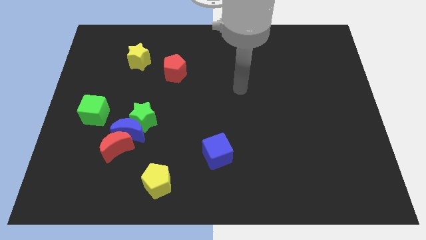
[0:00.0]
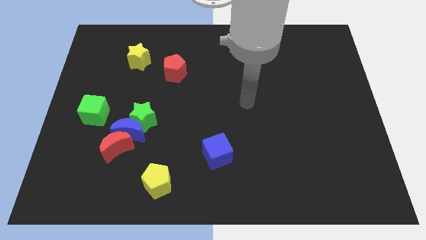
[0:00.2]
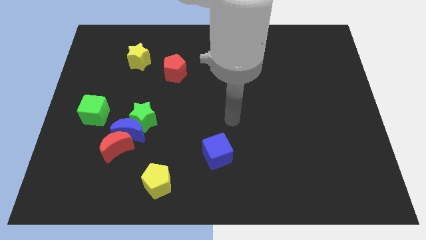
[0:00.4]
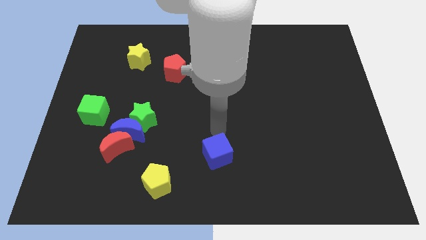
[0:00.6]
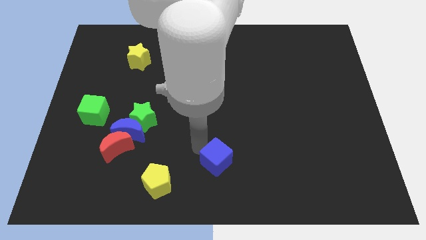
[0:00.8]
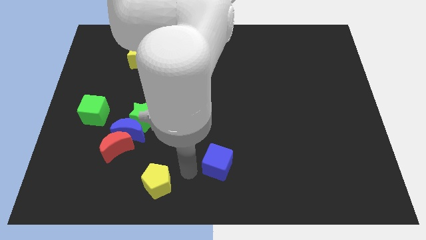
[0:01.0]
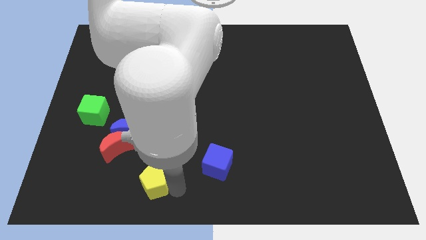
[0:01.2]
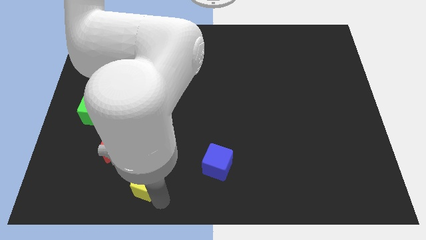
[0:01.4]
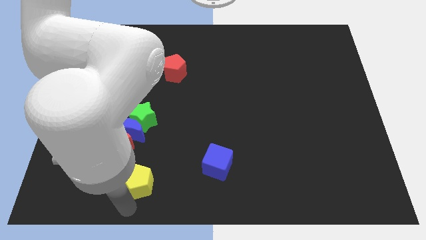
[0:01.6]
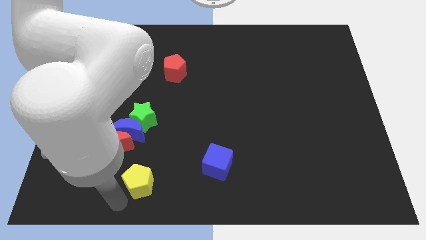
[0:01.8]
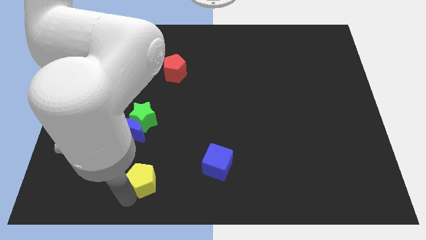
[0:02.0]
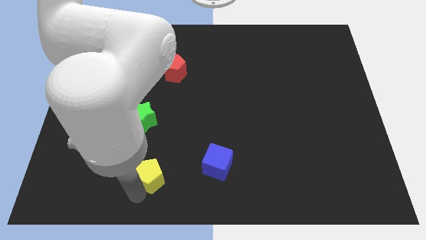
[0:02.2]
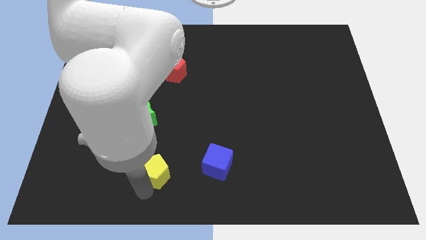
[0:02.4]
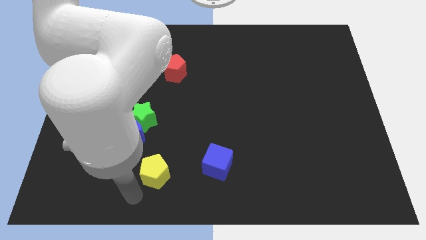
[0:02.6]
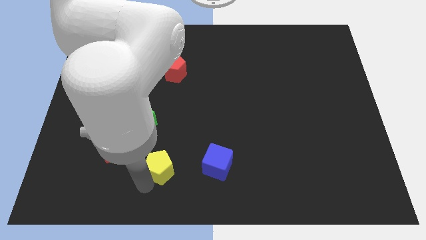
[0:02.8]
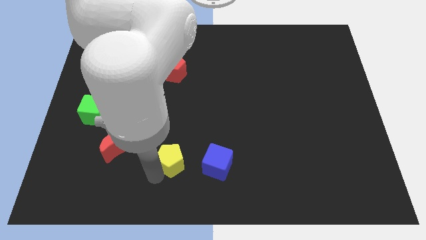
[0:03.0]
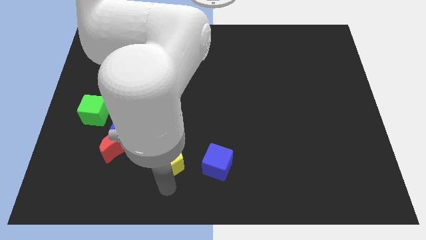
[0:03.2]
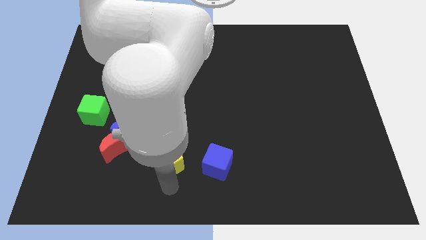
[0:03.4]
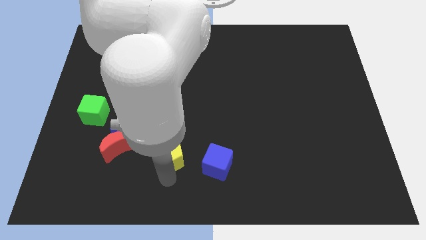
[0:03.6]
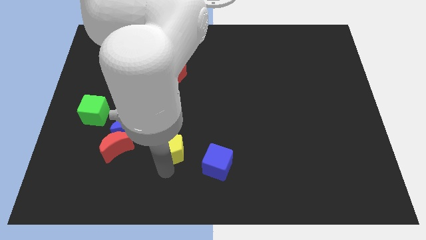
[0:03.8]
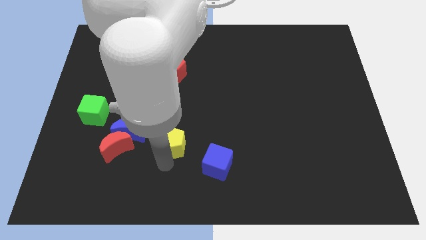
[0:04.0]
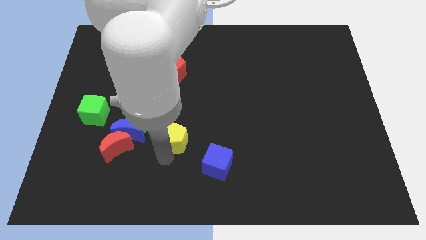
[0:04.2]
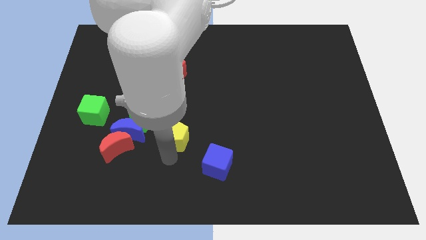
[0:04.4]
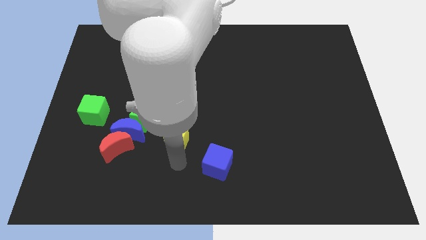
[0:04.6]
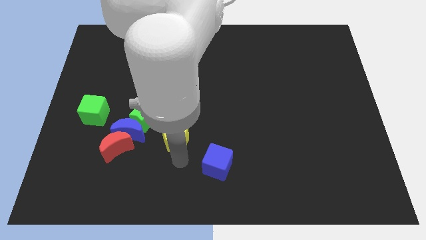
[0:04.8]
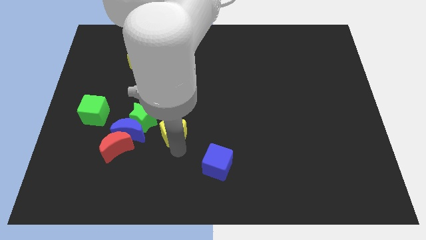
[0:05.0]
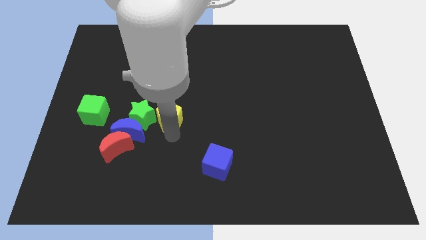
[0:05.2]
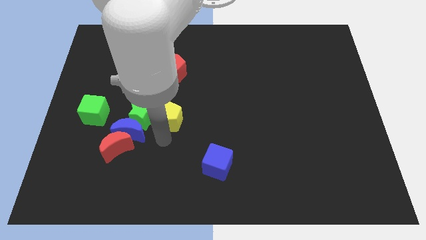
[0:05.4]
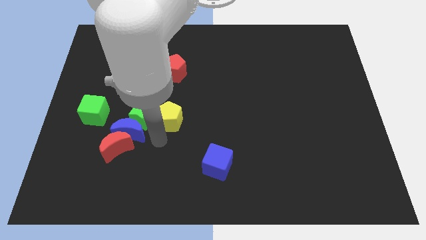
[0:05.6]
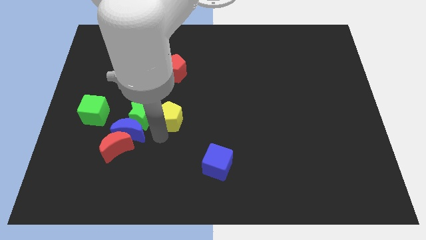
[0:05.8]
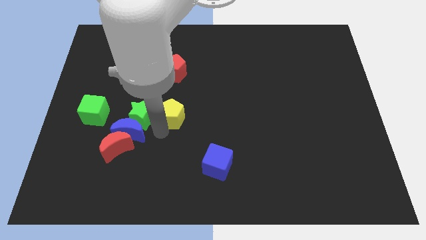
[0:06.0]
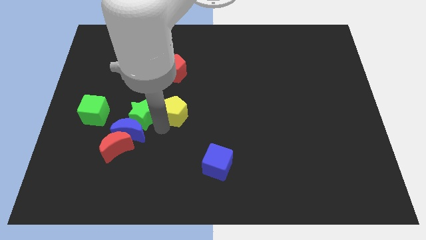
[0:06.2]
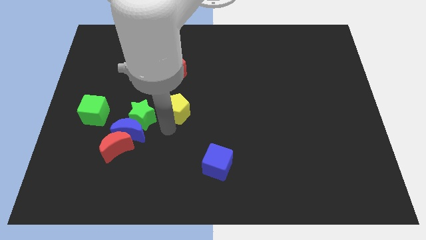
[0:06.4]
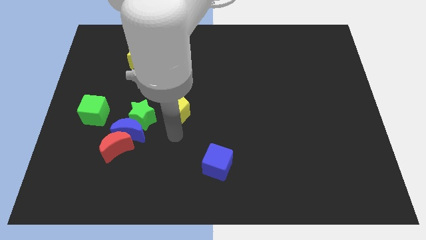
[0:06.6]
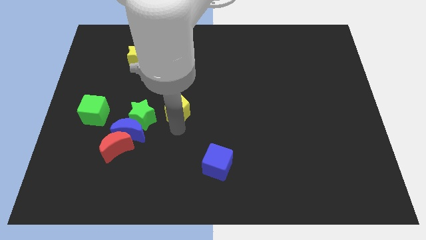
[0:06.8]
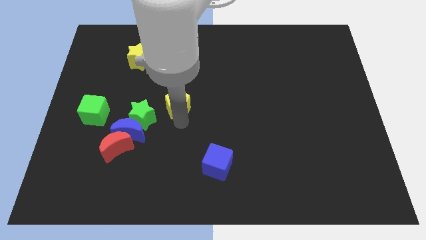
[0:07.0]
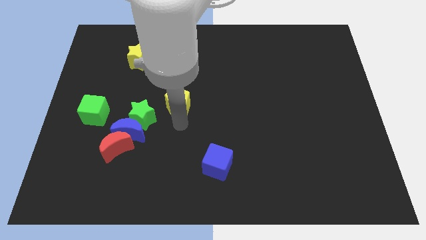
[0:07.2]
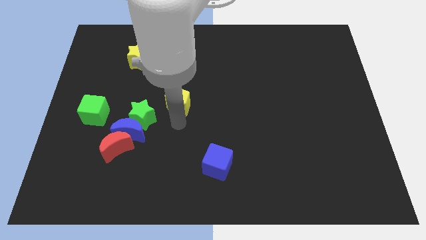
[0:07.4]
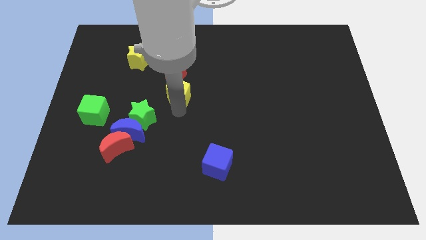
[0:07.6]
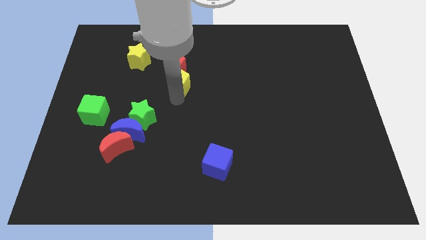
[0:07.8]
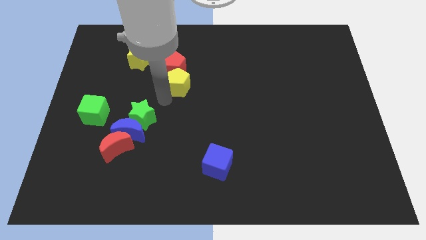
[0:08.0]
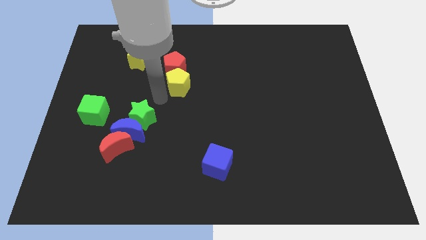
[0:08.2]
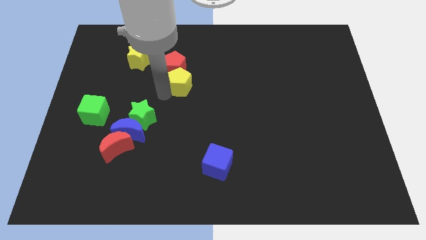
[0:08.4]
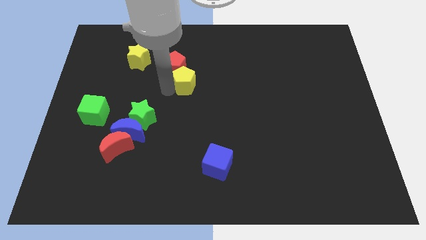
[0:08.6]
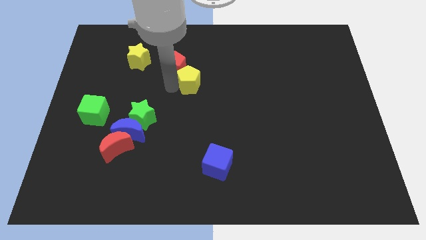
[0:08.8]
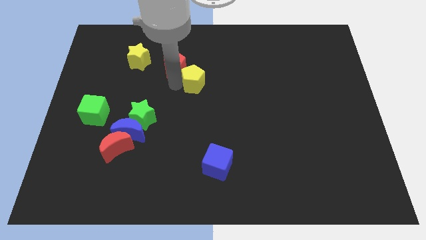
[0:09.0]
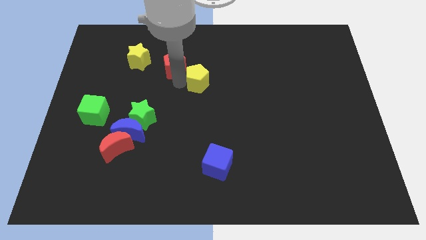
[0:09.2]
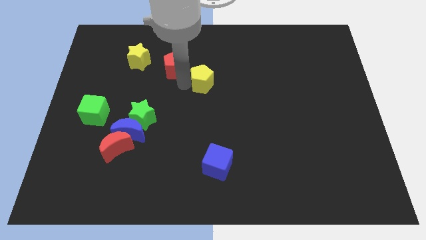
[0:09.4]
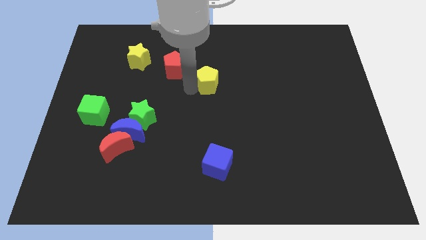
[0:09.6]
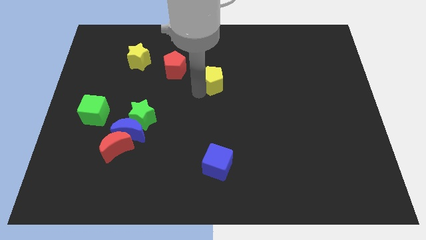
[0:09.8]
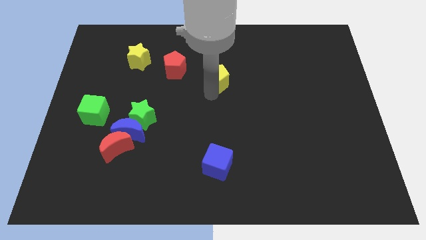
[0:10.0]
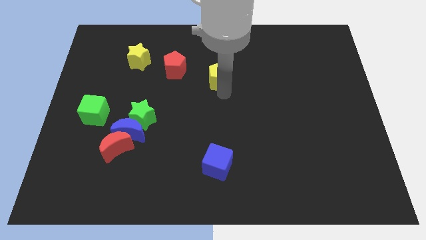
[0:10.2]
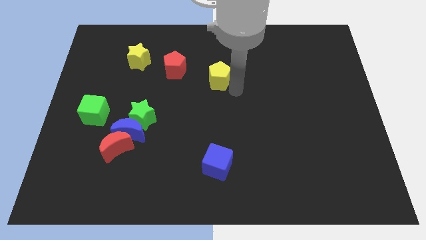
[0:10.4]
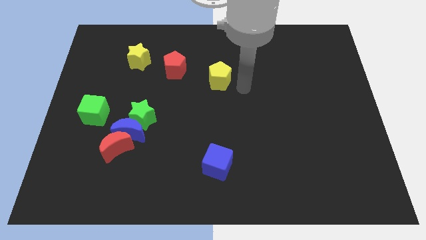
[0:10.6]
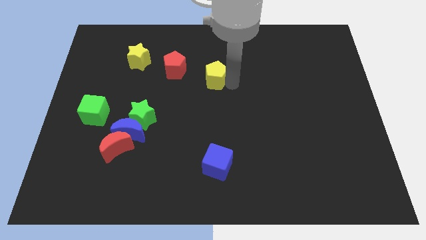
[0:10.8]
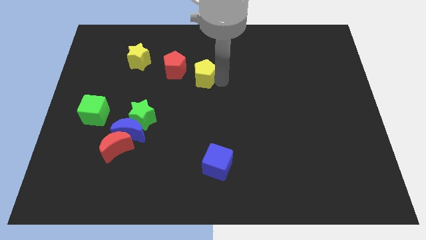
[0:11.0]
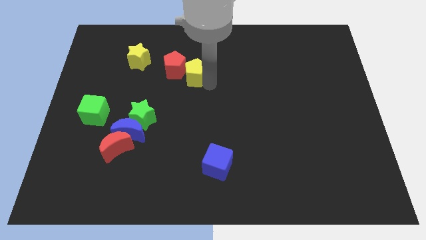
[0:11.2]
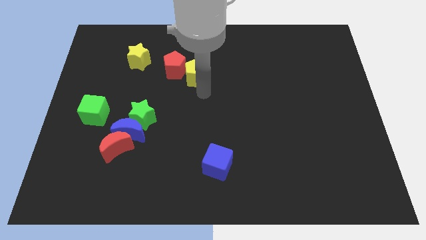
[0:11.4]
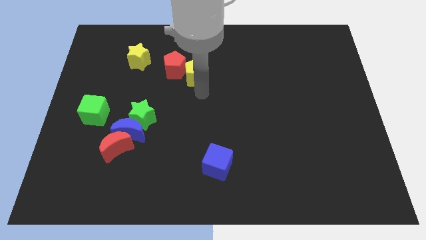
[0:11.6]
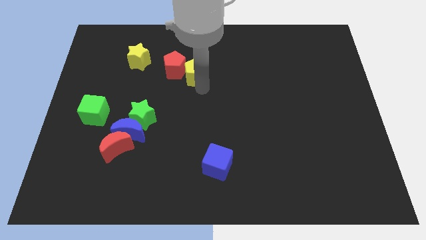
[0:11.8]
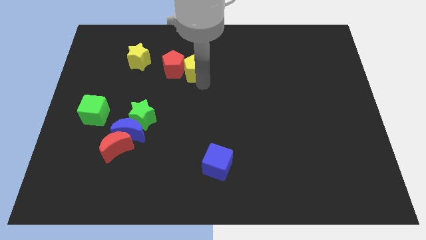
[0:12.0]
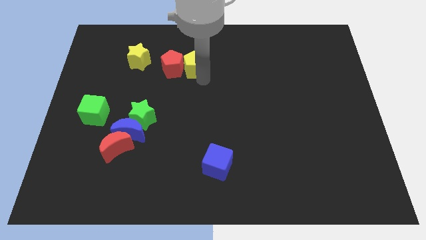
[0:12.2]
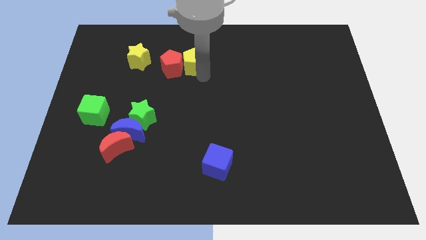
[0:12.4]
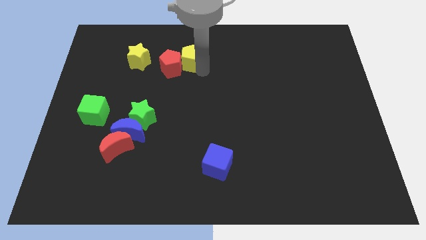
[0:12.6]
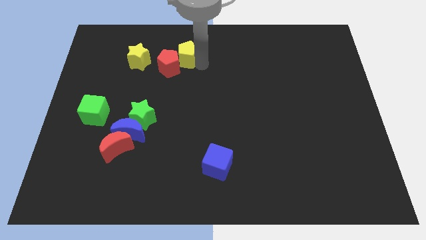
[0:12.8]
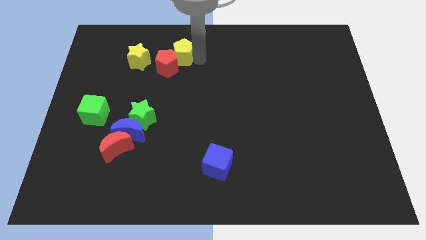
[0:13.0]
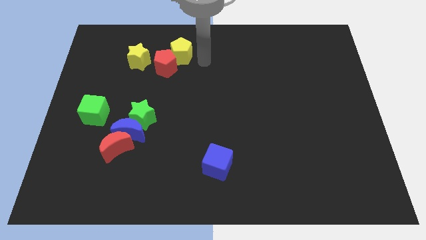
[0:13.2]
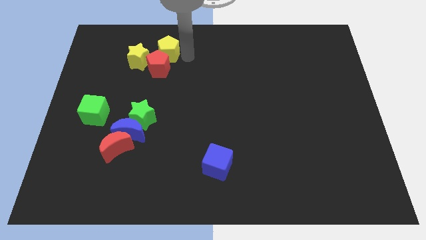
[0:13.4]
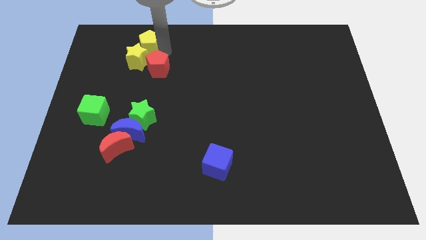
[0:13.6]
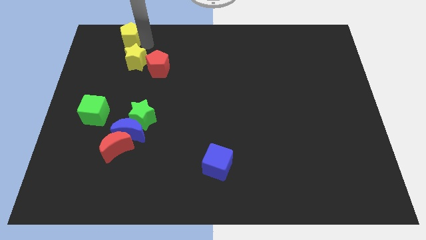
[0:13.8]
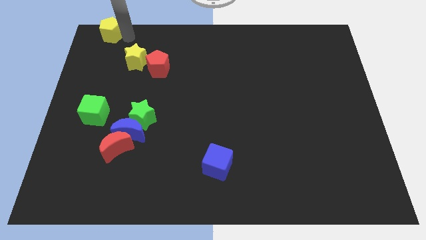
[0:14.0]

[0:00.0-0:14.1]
push the yellow pentagon to the top left of the board
